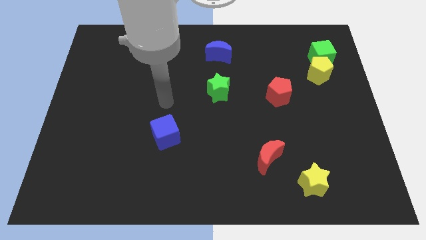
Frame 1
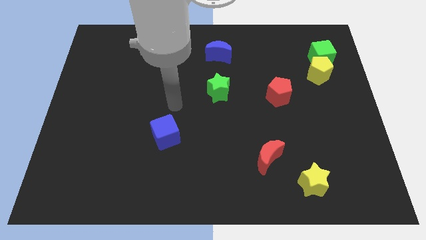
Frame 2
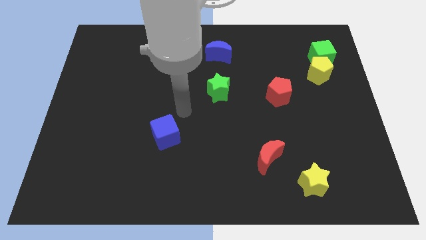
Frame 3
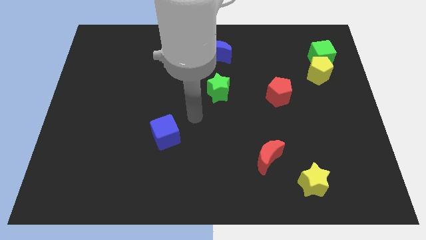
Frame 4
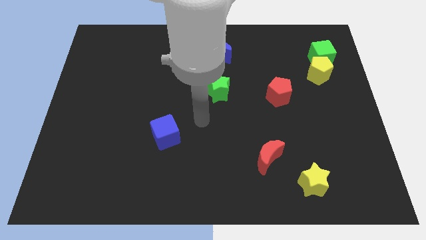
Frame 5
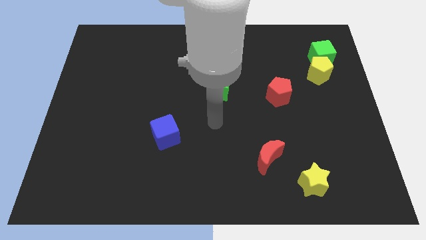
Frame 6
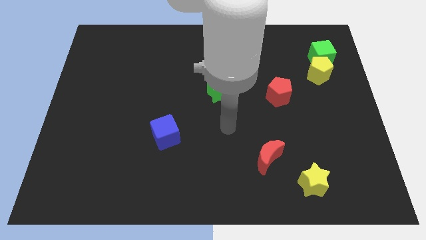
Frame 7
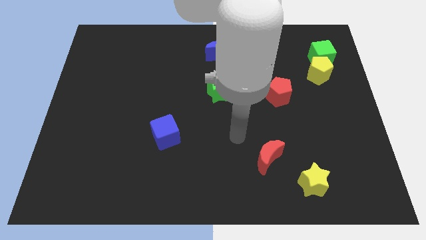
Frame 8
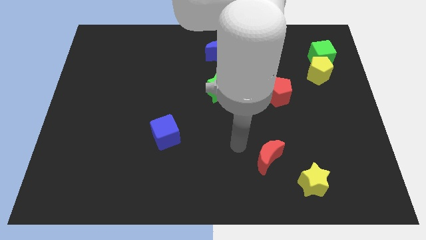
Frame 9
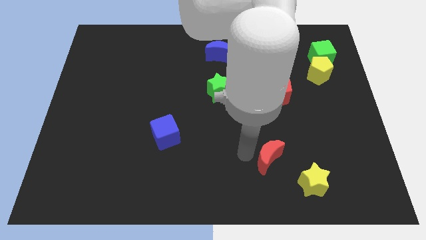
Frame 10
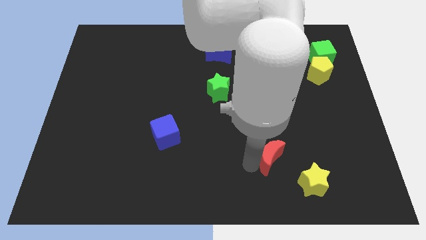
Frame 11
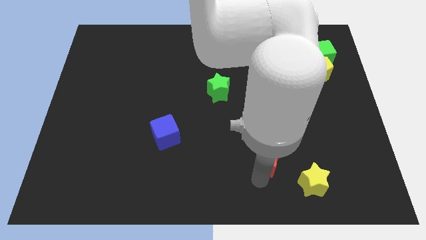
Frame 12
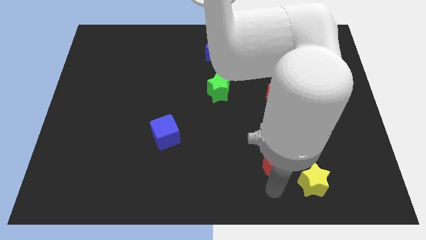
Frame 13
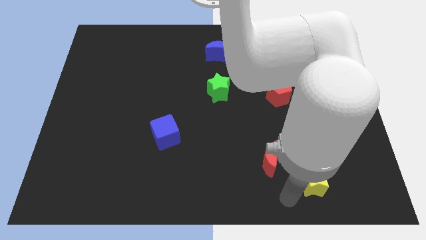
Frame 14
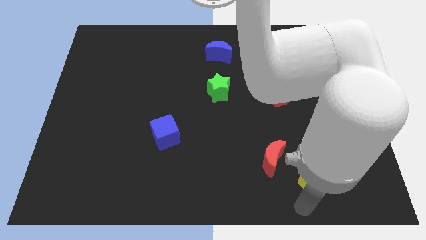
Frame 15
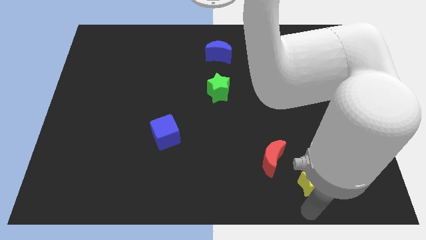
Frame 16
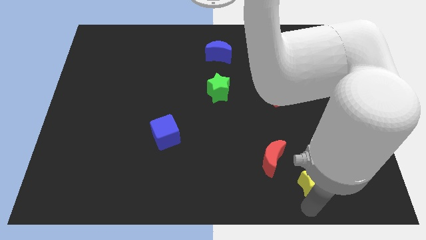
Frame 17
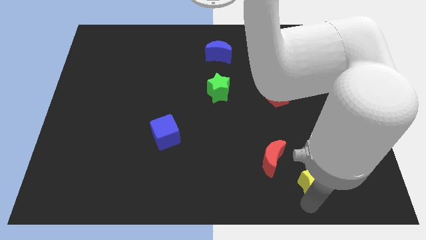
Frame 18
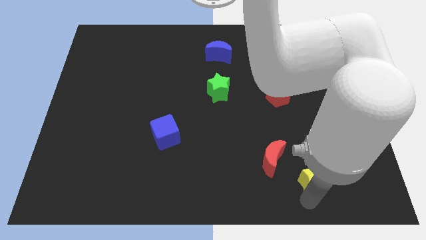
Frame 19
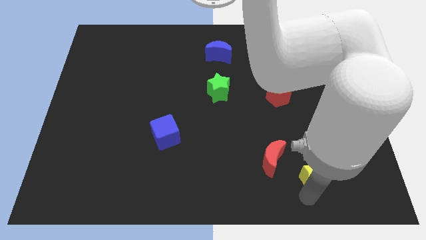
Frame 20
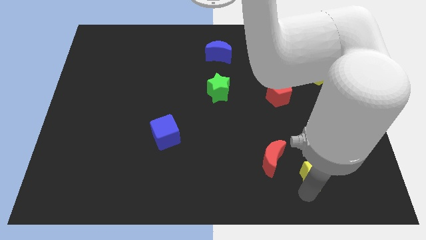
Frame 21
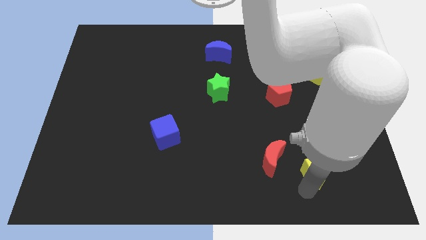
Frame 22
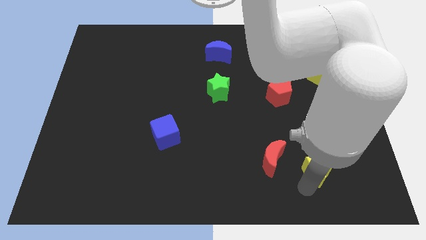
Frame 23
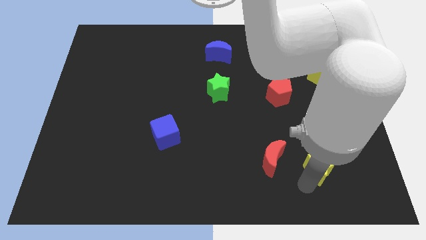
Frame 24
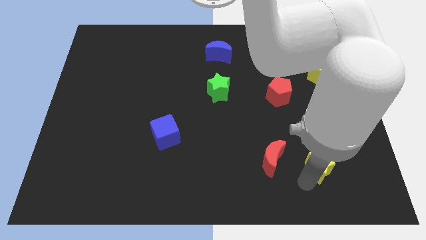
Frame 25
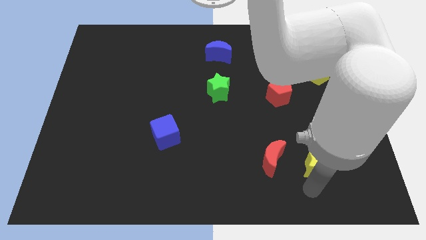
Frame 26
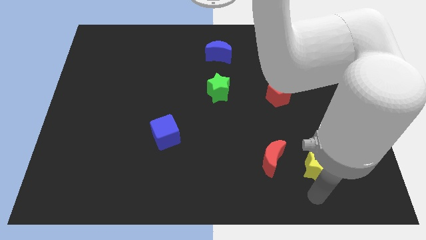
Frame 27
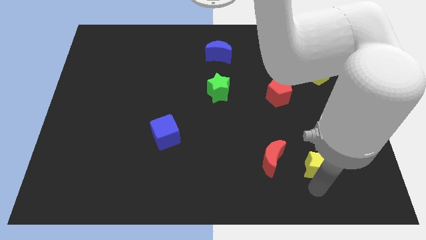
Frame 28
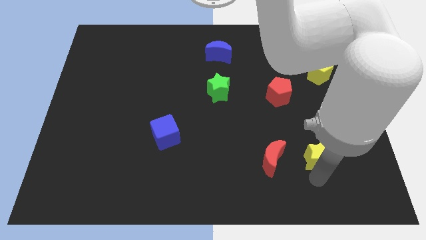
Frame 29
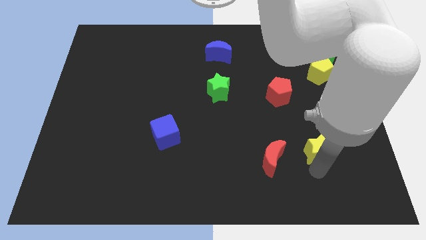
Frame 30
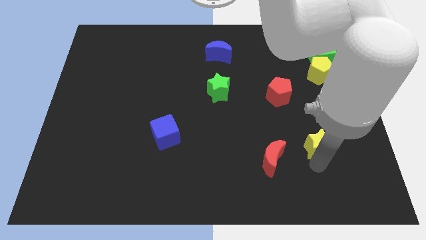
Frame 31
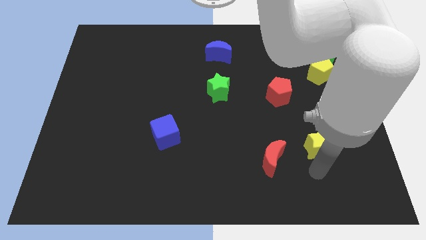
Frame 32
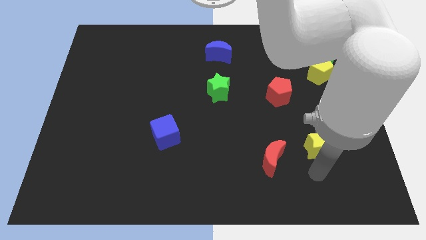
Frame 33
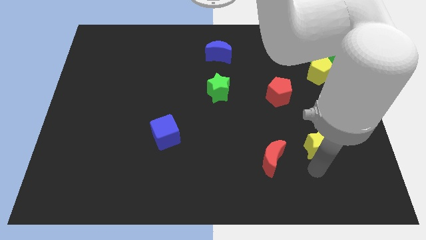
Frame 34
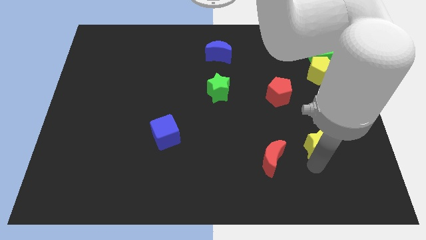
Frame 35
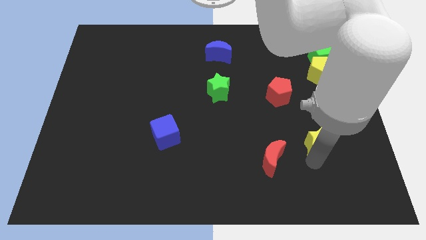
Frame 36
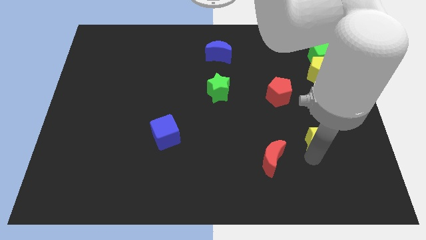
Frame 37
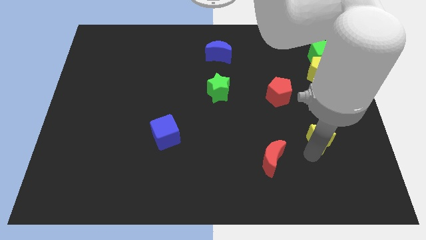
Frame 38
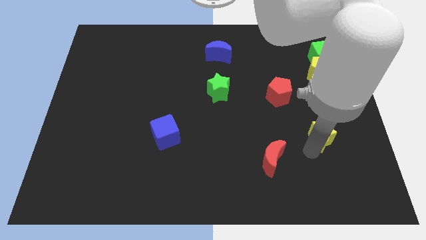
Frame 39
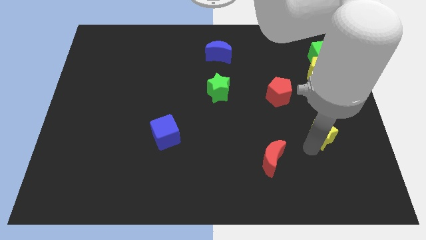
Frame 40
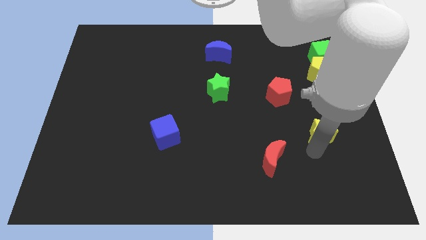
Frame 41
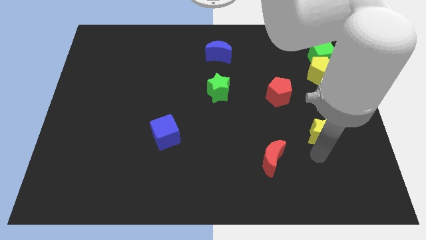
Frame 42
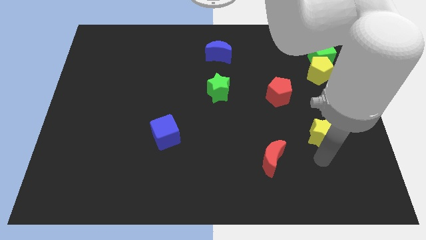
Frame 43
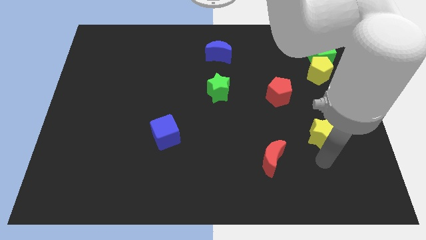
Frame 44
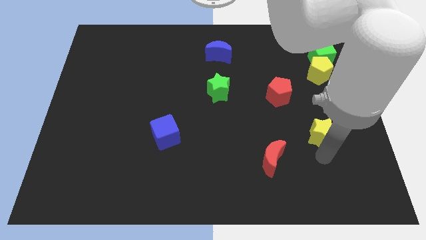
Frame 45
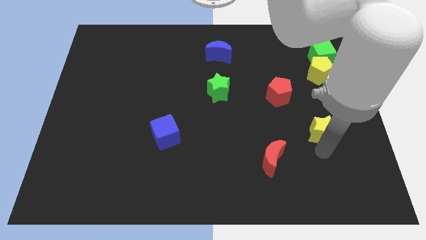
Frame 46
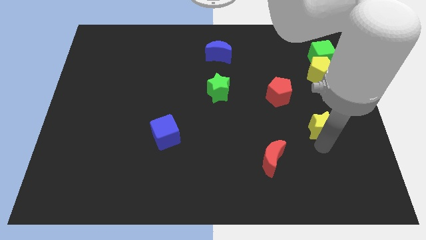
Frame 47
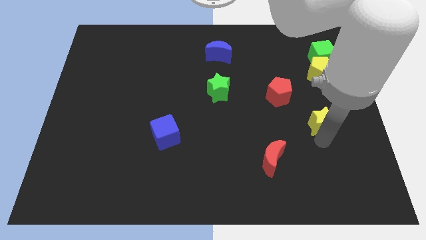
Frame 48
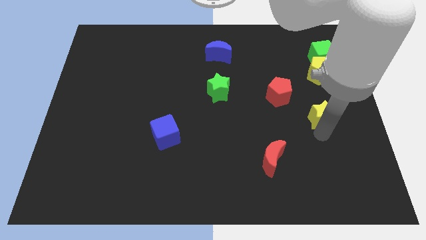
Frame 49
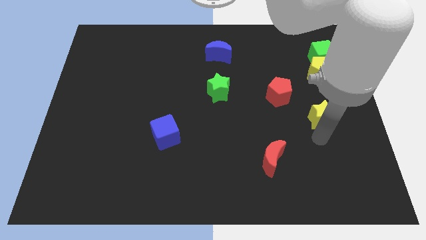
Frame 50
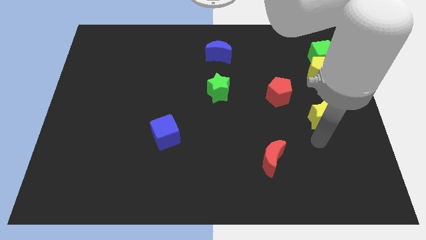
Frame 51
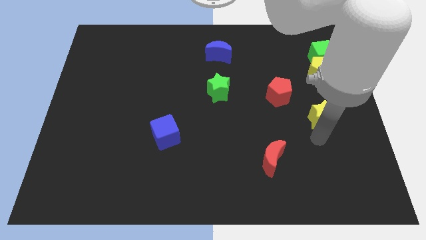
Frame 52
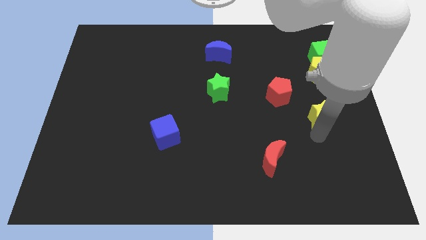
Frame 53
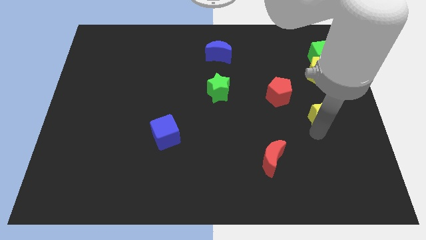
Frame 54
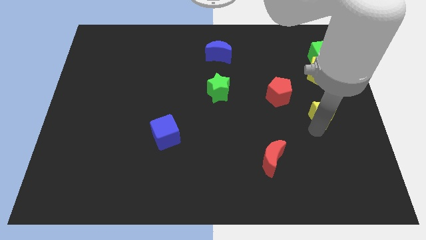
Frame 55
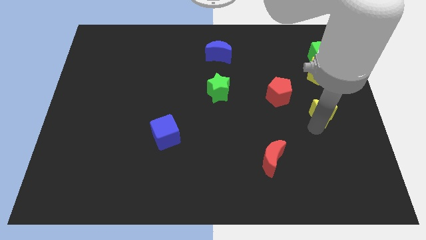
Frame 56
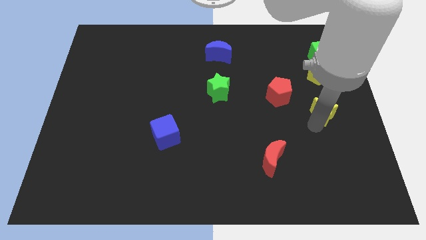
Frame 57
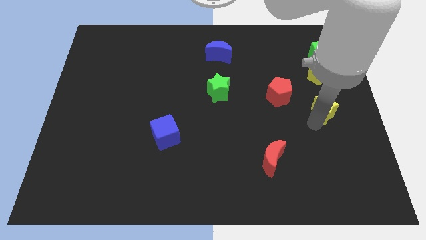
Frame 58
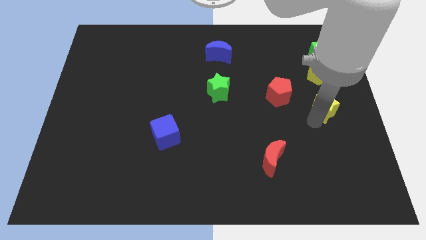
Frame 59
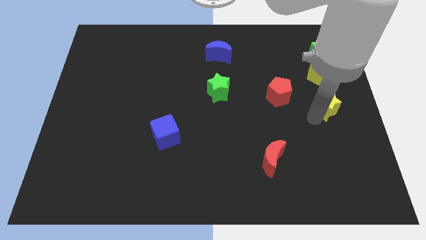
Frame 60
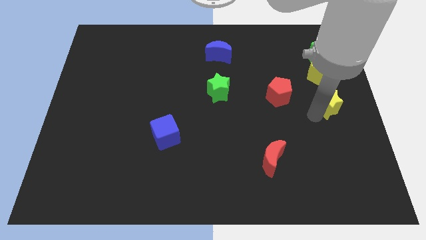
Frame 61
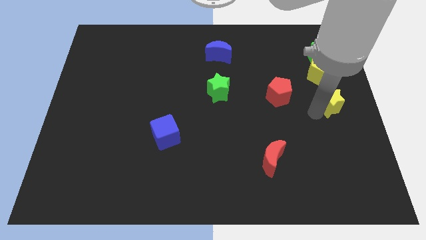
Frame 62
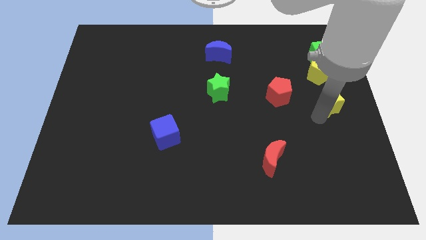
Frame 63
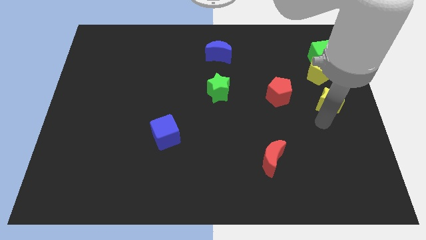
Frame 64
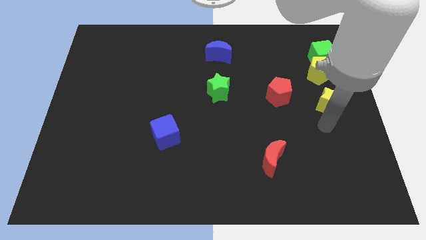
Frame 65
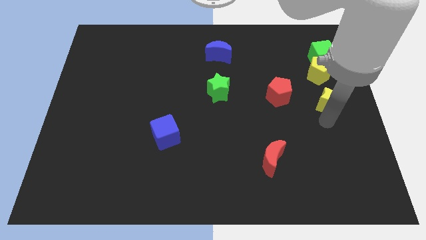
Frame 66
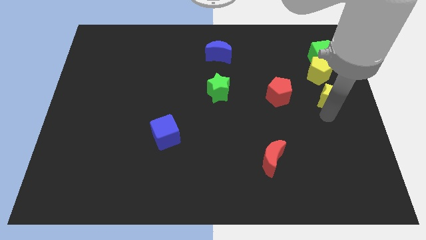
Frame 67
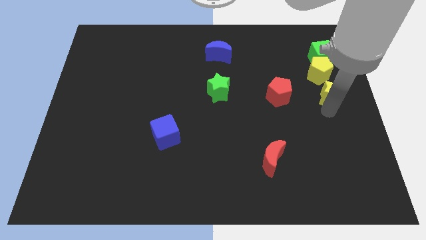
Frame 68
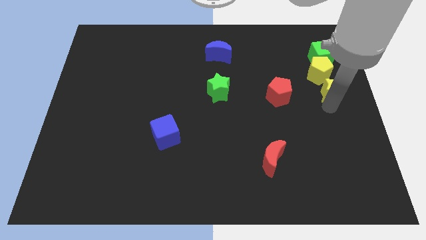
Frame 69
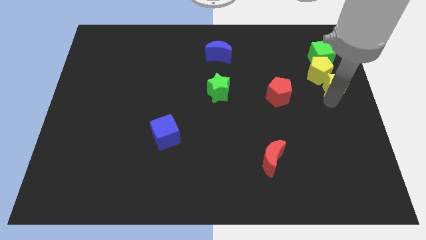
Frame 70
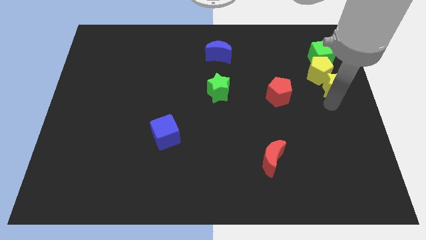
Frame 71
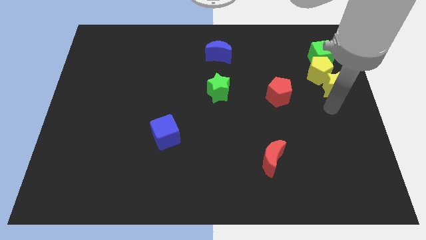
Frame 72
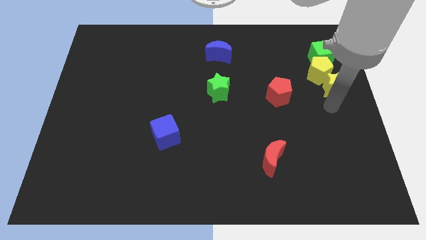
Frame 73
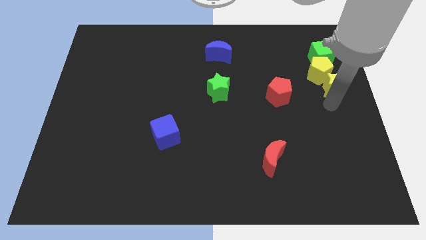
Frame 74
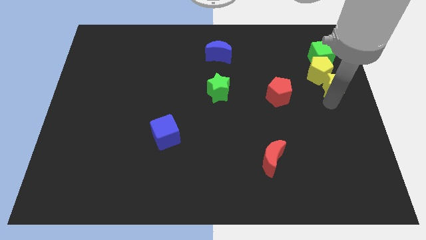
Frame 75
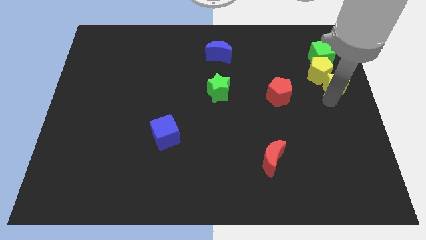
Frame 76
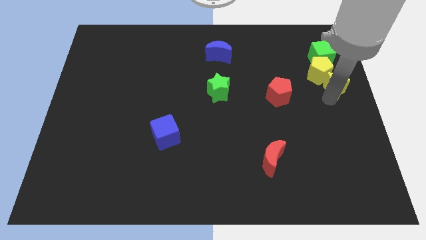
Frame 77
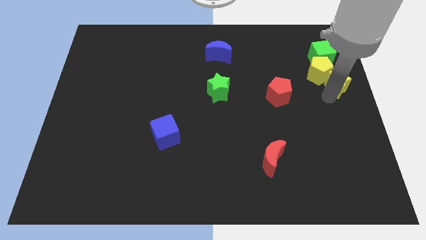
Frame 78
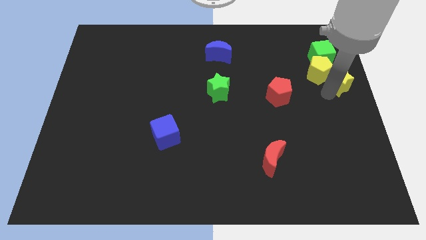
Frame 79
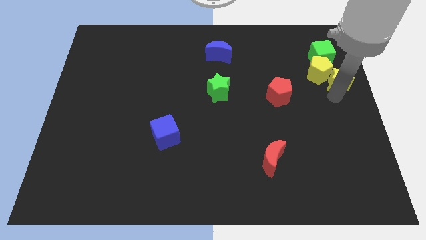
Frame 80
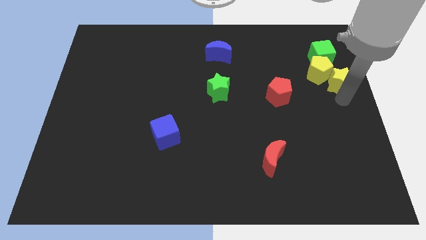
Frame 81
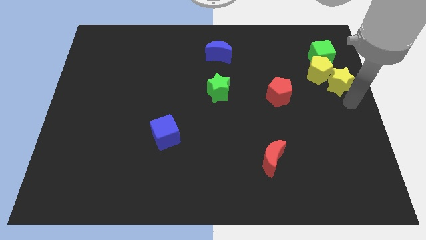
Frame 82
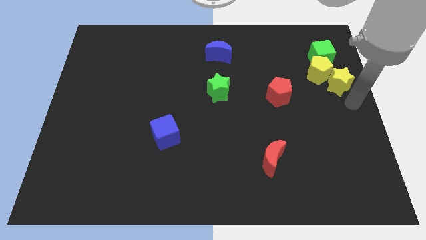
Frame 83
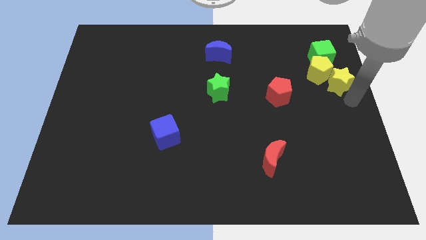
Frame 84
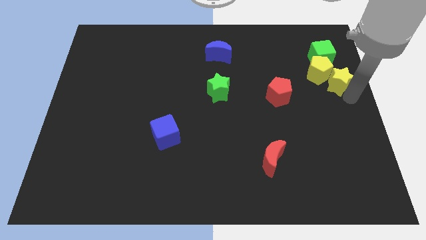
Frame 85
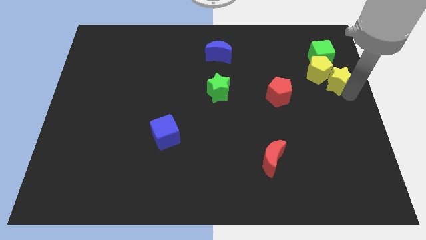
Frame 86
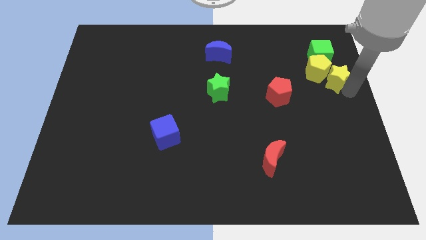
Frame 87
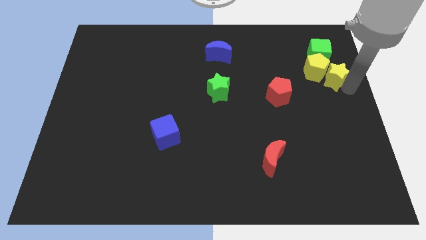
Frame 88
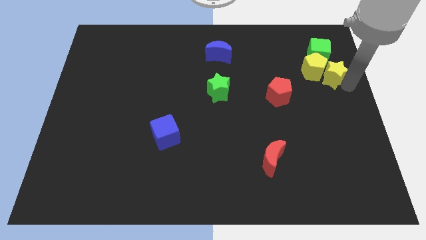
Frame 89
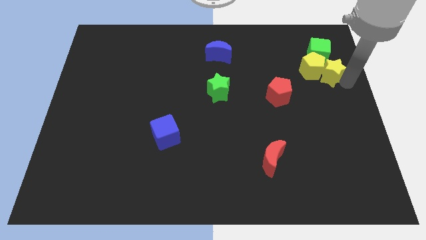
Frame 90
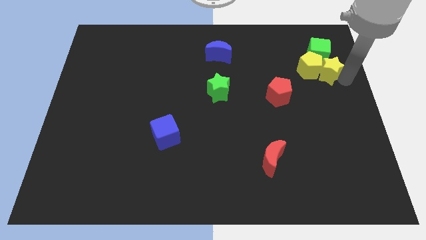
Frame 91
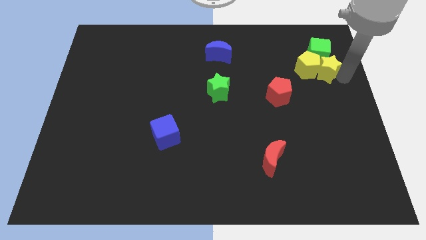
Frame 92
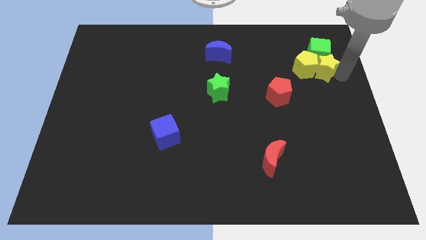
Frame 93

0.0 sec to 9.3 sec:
move the yellow star towards the green cube
